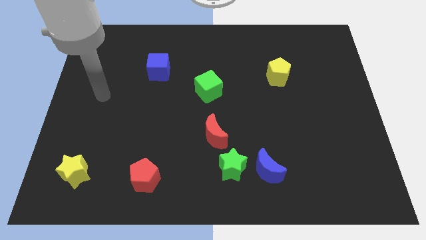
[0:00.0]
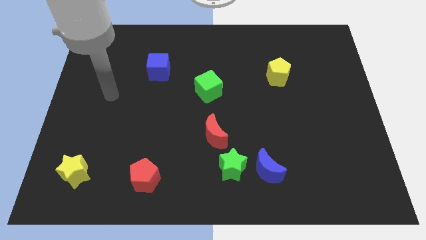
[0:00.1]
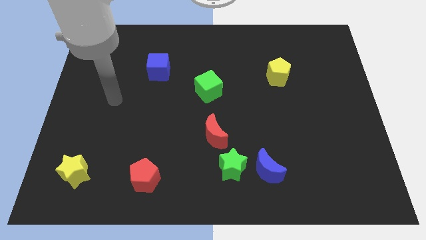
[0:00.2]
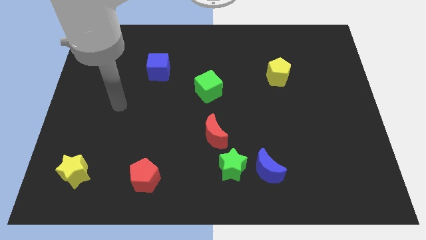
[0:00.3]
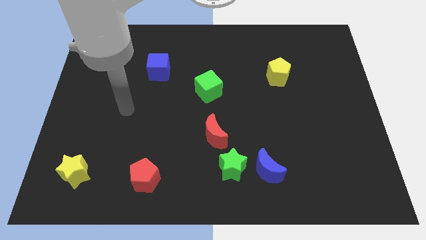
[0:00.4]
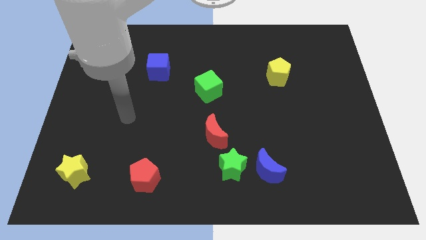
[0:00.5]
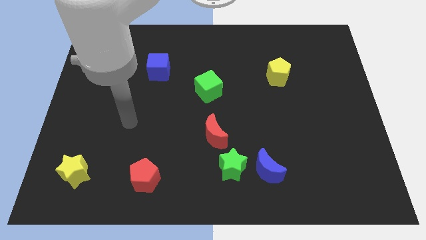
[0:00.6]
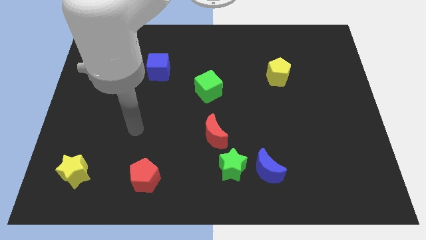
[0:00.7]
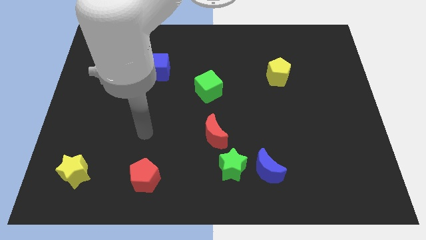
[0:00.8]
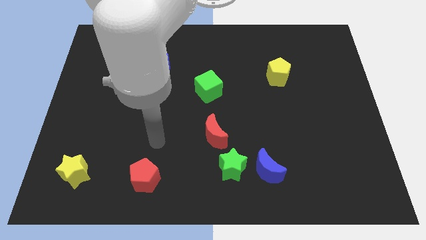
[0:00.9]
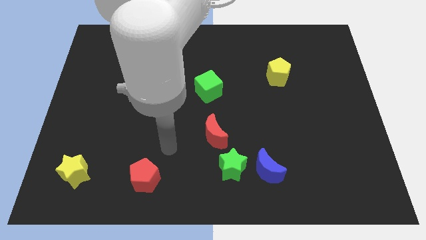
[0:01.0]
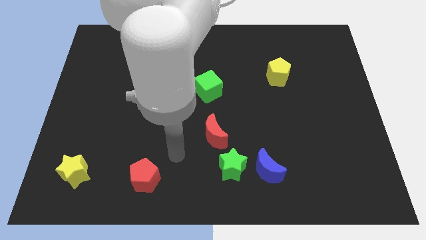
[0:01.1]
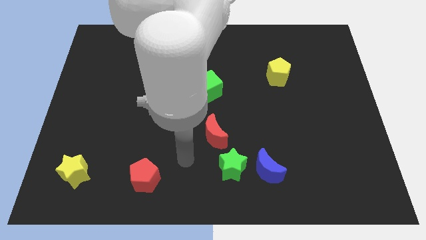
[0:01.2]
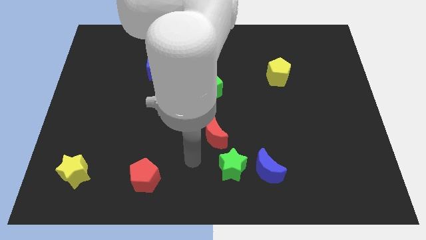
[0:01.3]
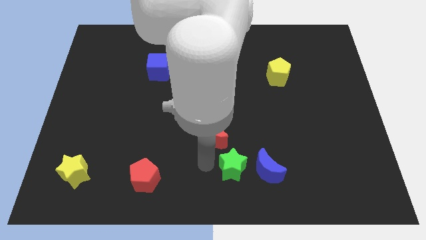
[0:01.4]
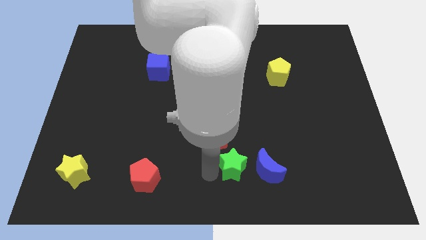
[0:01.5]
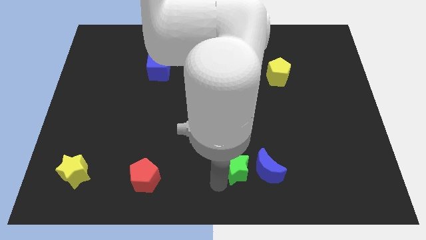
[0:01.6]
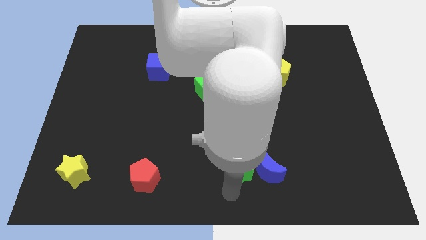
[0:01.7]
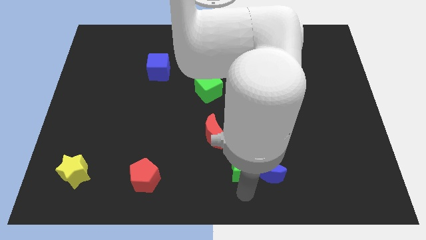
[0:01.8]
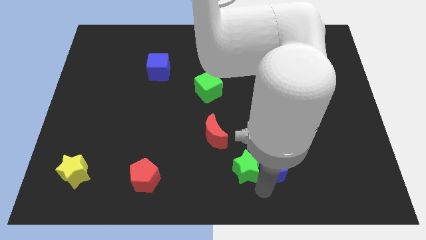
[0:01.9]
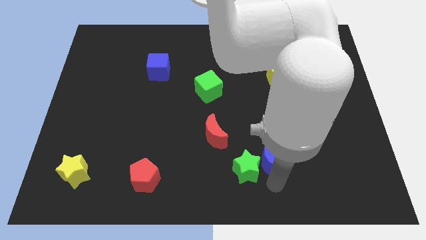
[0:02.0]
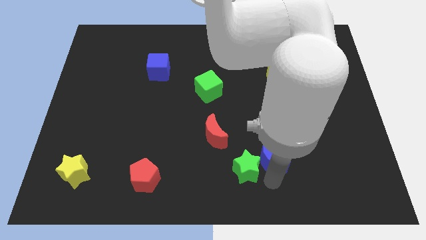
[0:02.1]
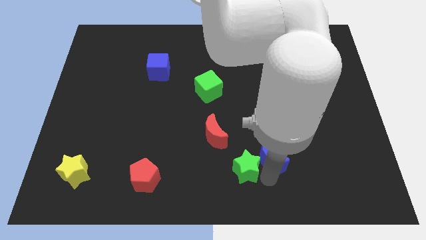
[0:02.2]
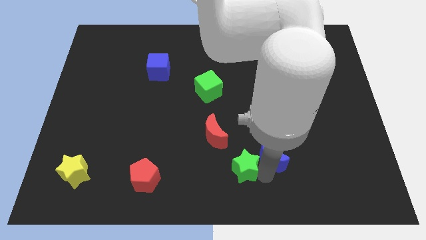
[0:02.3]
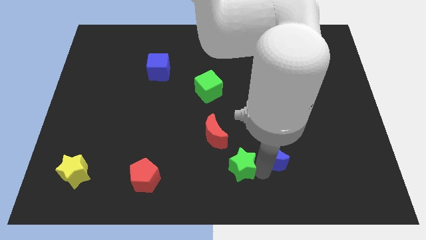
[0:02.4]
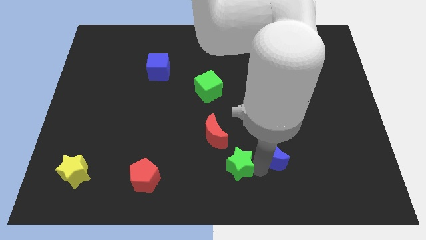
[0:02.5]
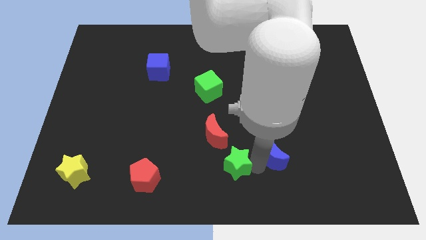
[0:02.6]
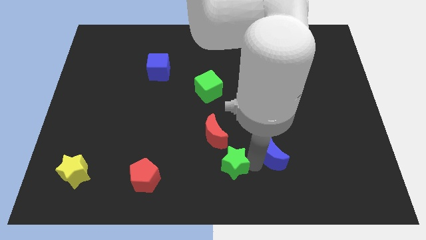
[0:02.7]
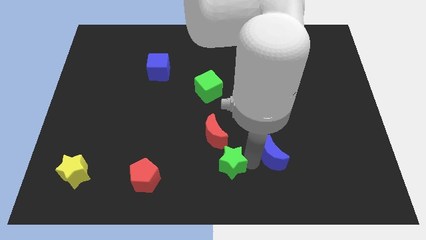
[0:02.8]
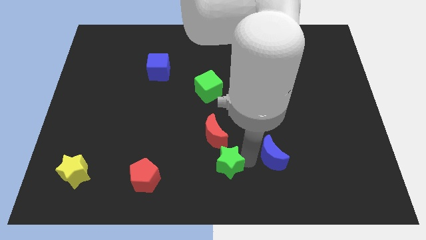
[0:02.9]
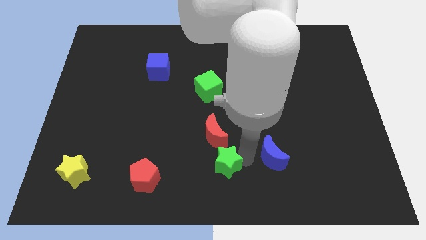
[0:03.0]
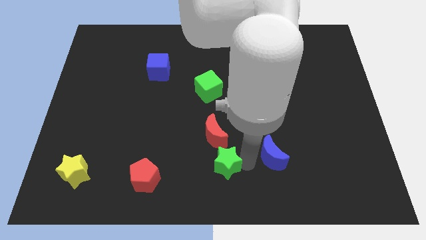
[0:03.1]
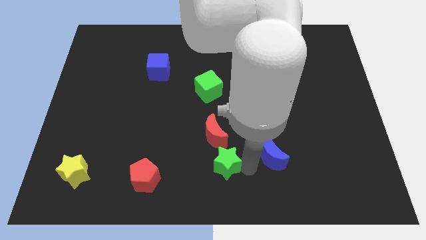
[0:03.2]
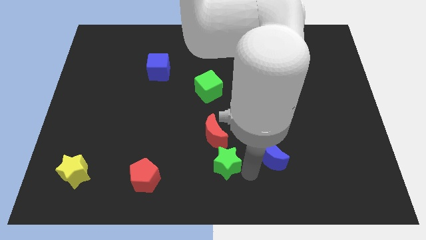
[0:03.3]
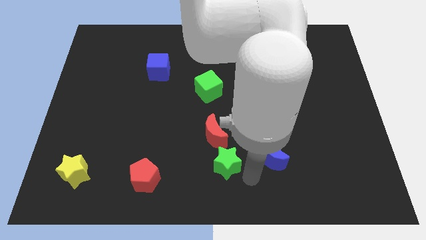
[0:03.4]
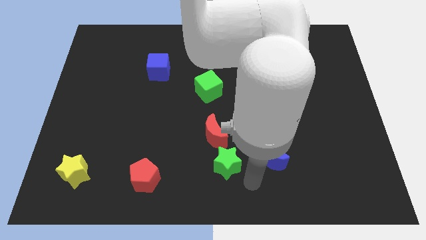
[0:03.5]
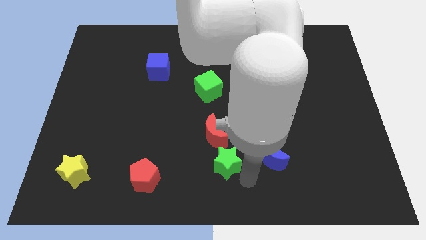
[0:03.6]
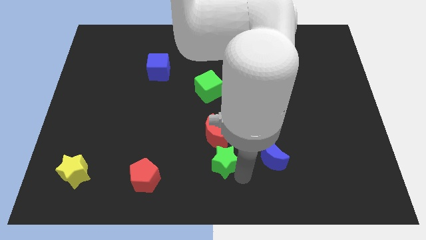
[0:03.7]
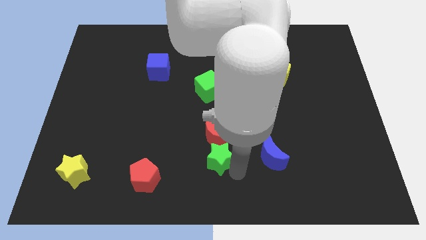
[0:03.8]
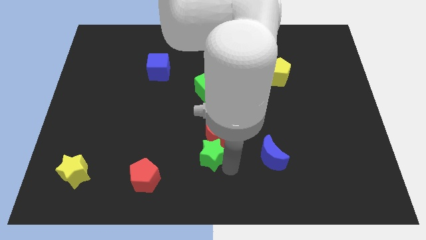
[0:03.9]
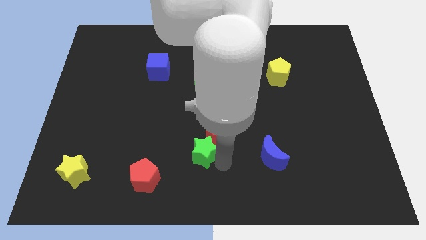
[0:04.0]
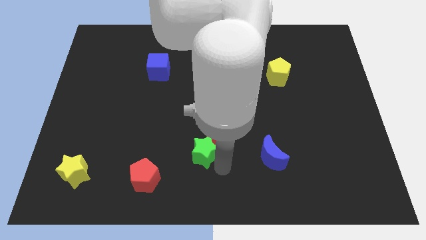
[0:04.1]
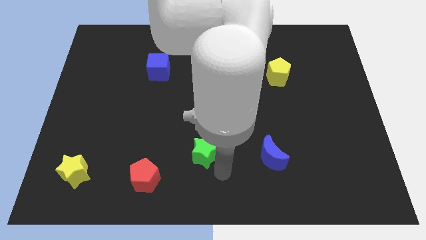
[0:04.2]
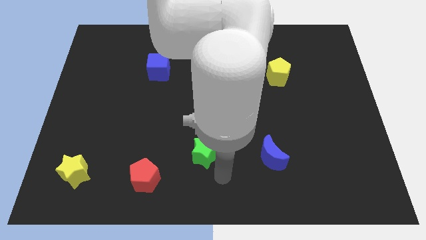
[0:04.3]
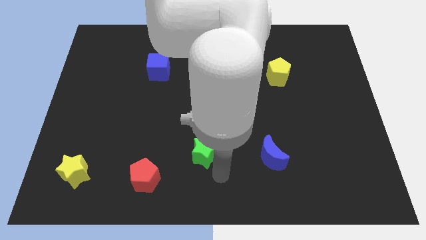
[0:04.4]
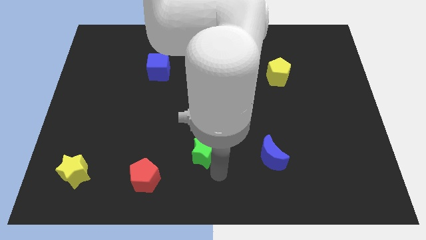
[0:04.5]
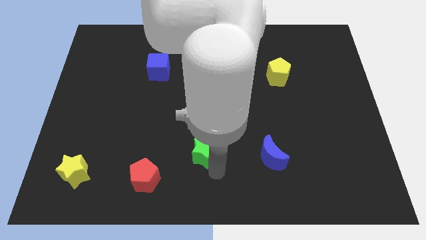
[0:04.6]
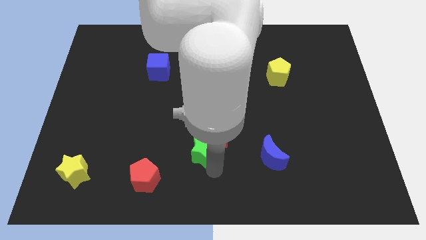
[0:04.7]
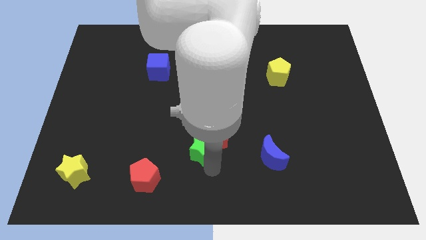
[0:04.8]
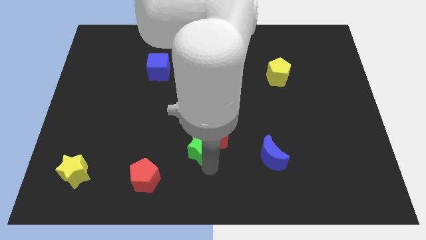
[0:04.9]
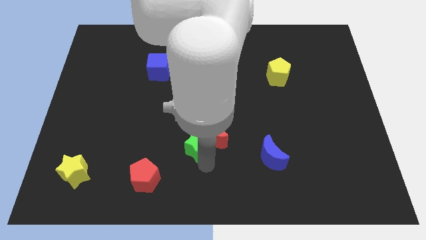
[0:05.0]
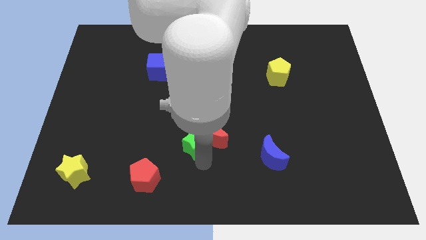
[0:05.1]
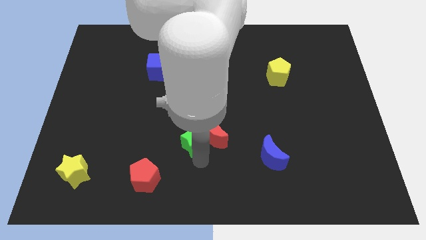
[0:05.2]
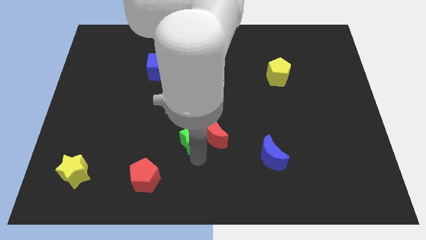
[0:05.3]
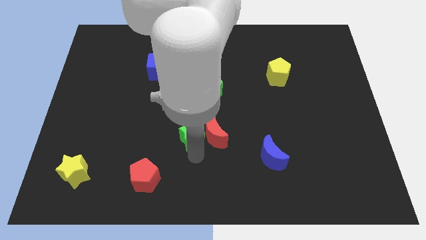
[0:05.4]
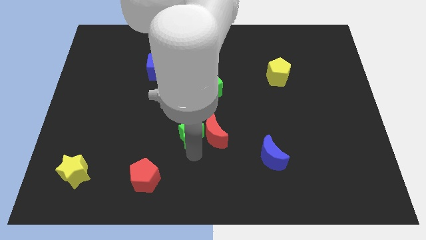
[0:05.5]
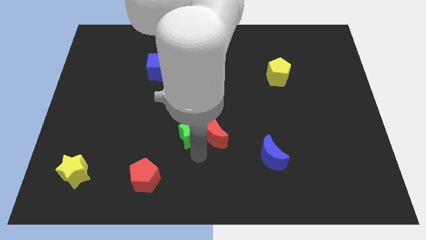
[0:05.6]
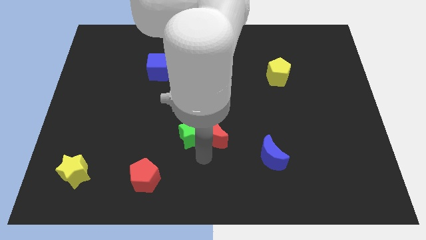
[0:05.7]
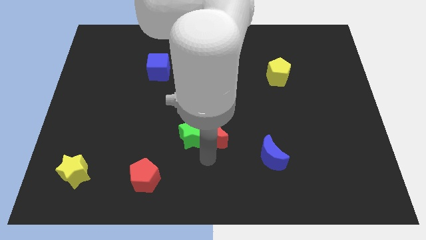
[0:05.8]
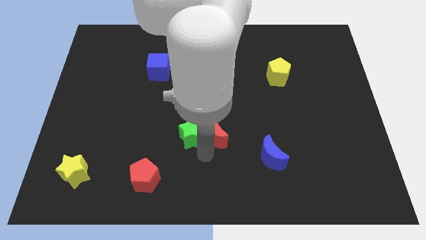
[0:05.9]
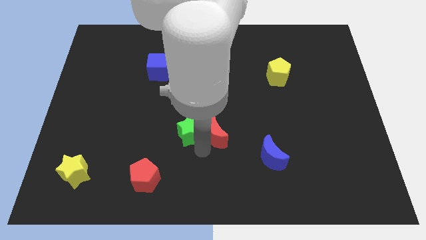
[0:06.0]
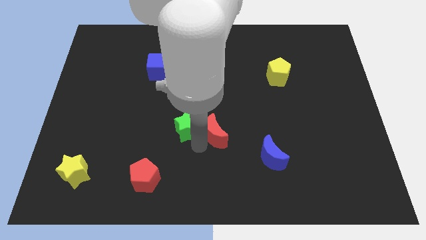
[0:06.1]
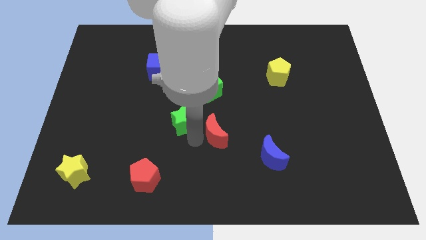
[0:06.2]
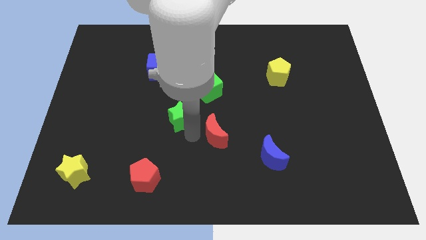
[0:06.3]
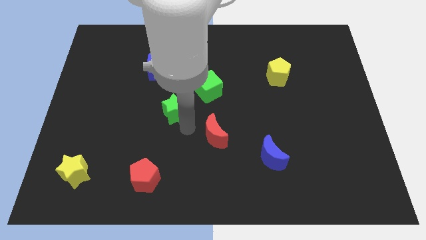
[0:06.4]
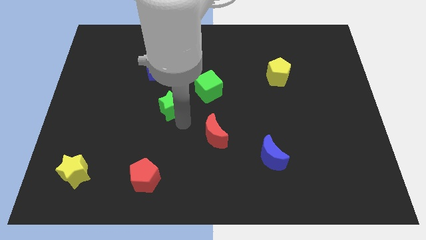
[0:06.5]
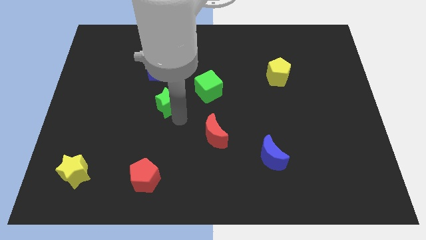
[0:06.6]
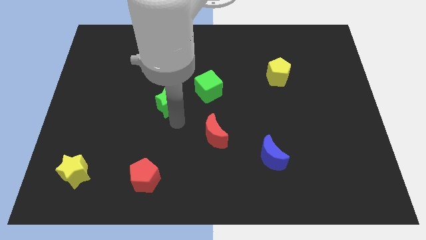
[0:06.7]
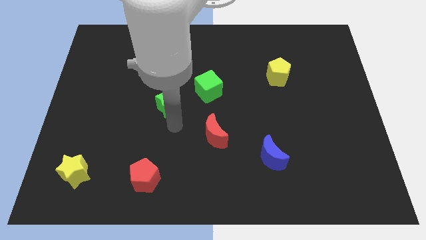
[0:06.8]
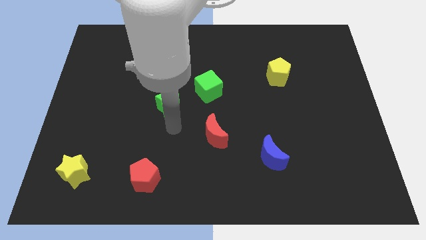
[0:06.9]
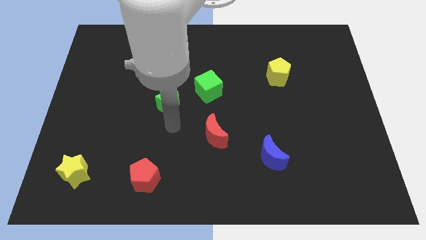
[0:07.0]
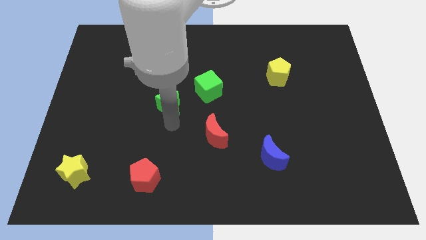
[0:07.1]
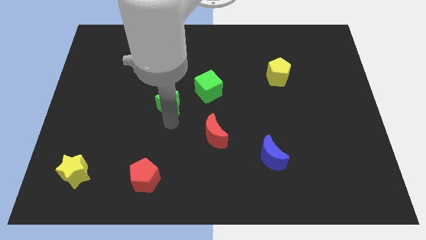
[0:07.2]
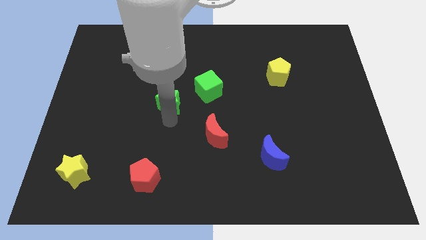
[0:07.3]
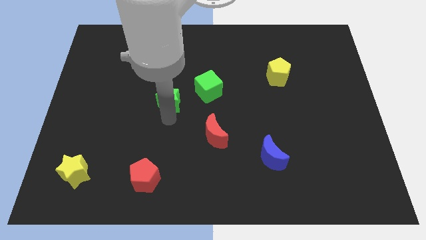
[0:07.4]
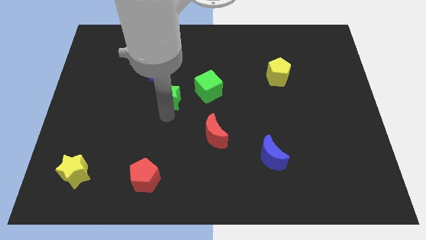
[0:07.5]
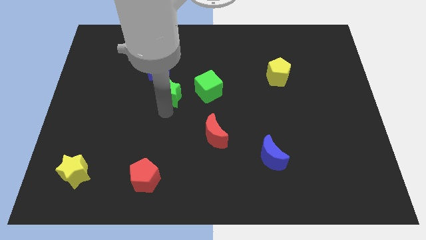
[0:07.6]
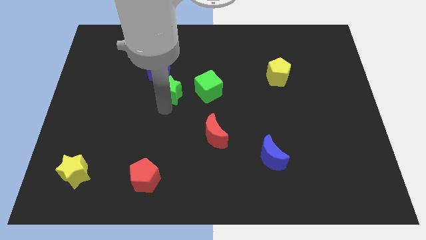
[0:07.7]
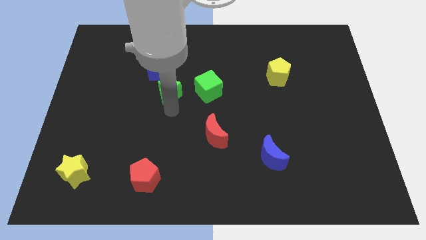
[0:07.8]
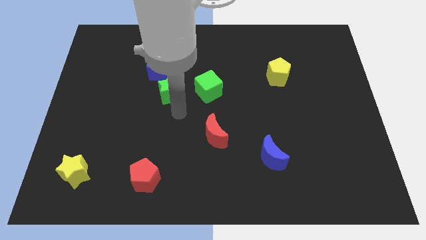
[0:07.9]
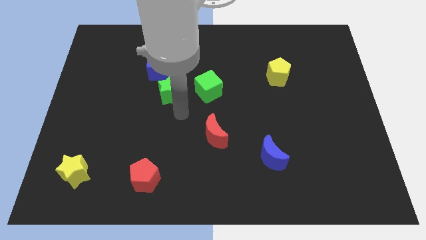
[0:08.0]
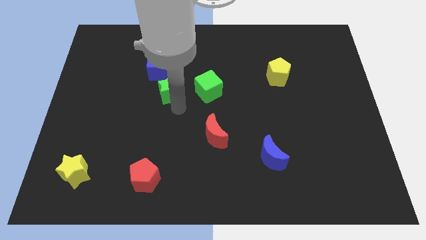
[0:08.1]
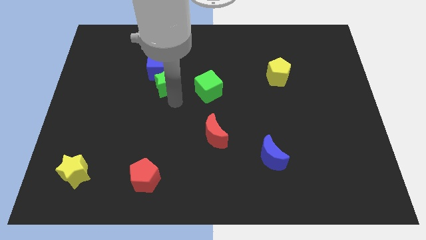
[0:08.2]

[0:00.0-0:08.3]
move the green star towards the blue cube
